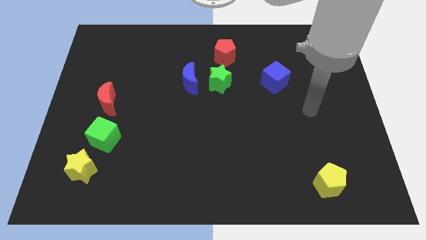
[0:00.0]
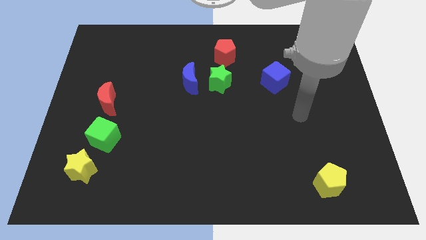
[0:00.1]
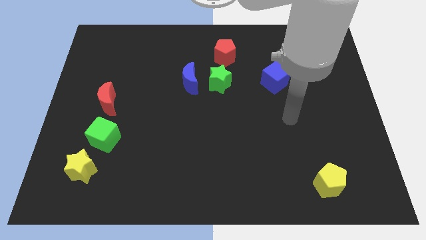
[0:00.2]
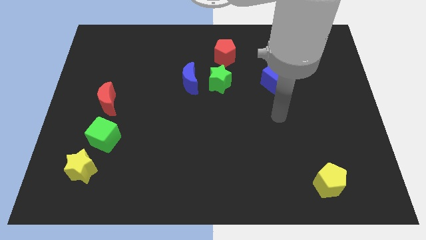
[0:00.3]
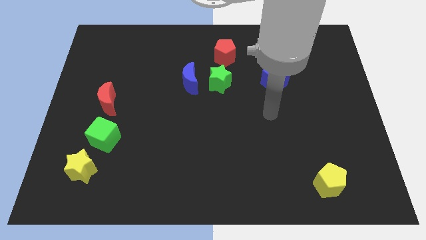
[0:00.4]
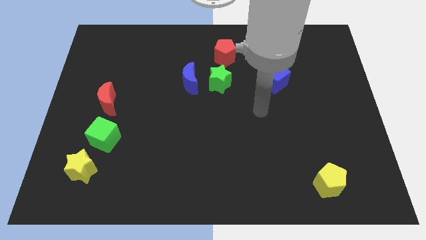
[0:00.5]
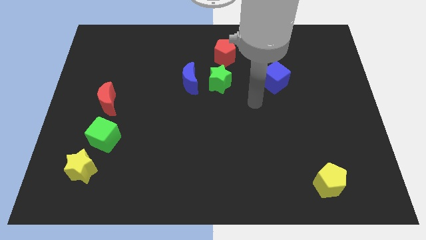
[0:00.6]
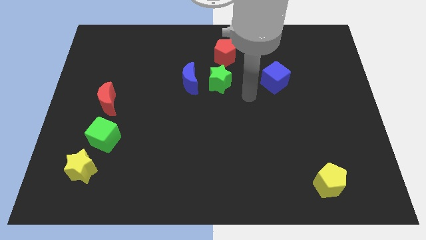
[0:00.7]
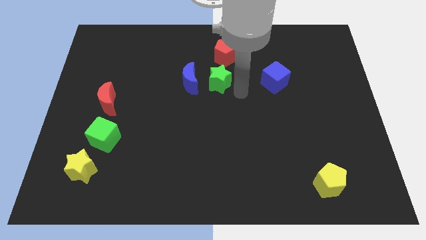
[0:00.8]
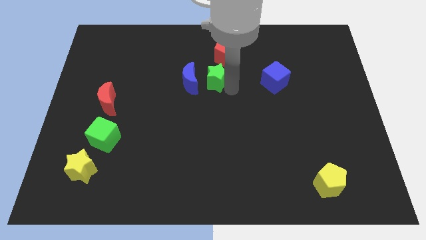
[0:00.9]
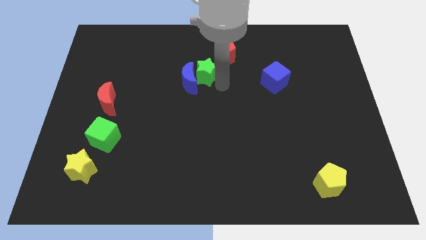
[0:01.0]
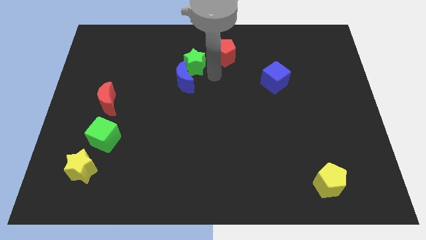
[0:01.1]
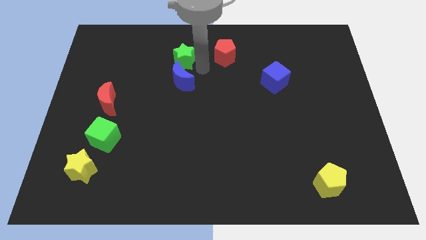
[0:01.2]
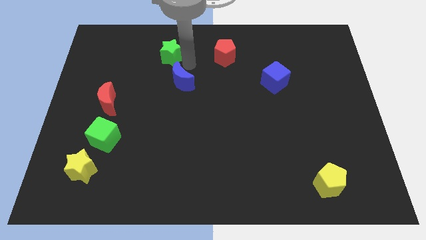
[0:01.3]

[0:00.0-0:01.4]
separate the blue moon from the green star

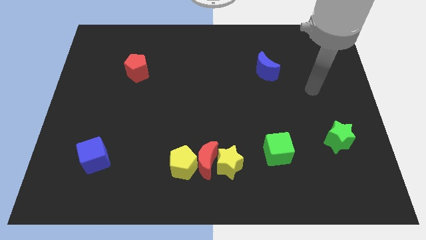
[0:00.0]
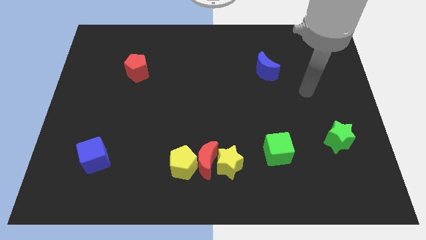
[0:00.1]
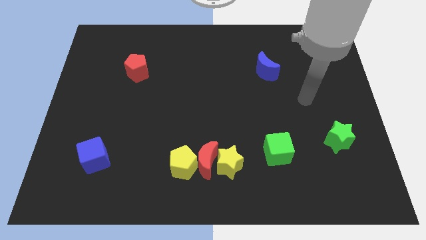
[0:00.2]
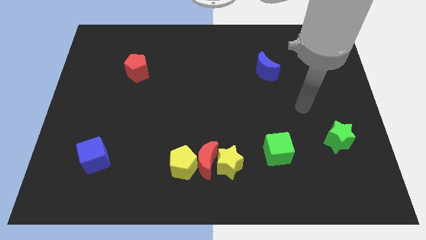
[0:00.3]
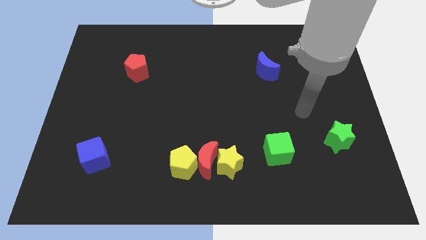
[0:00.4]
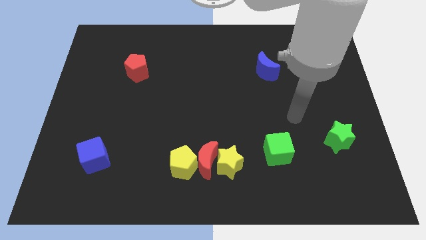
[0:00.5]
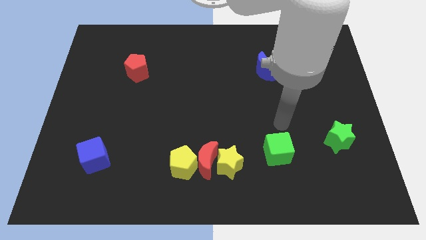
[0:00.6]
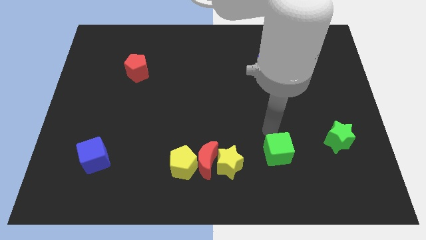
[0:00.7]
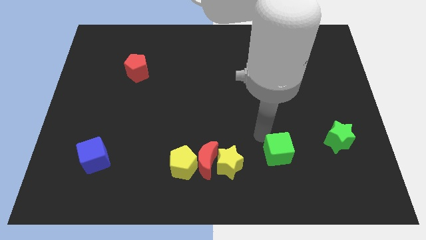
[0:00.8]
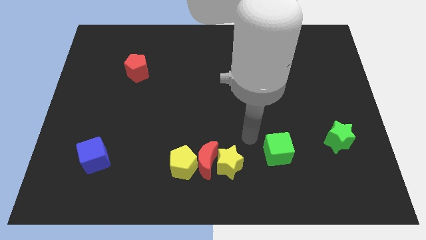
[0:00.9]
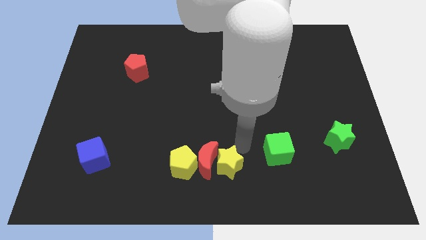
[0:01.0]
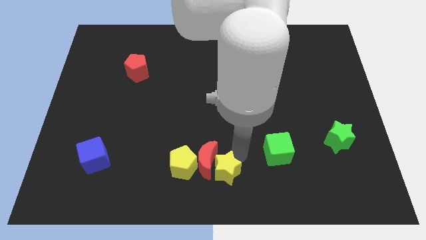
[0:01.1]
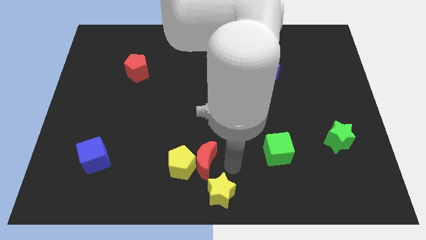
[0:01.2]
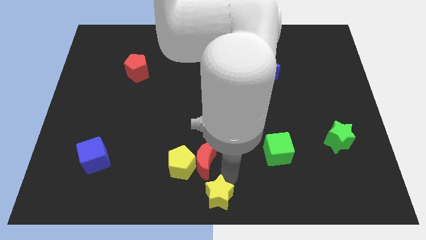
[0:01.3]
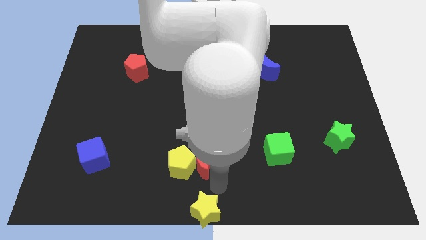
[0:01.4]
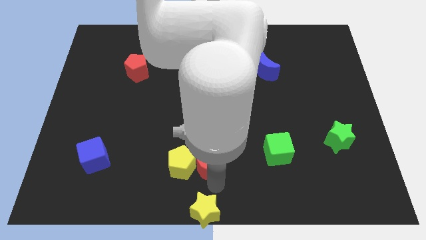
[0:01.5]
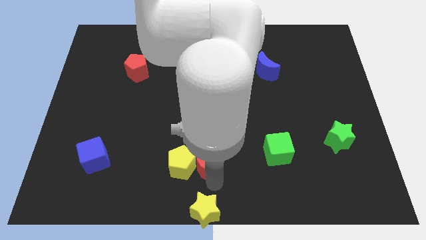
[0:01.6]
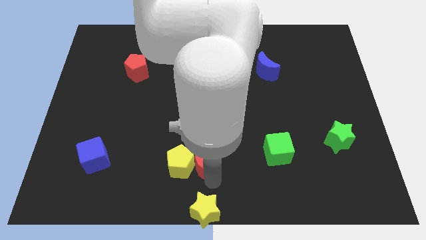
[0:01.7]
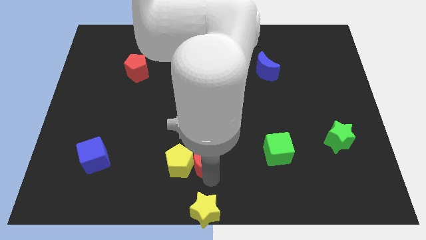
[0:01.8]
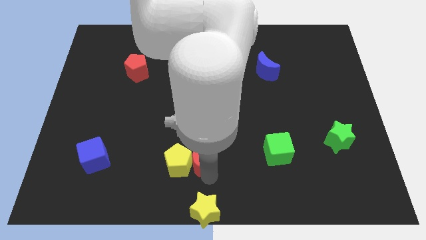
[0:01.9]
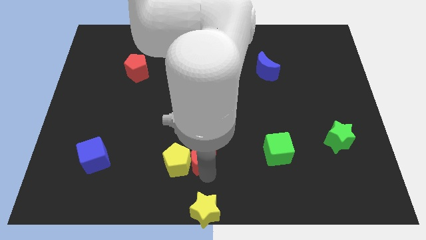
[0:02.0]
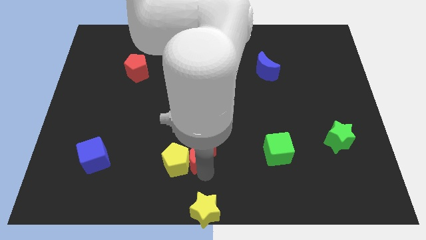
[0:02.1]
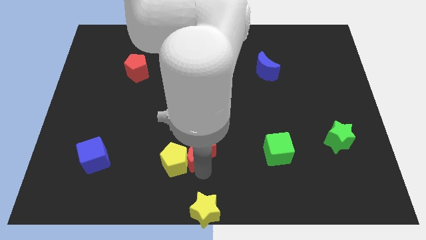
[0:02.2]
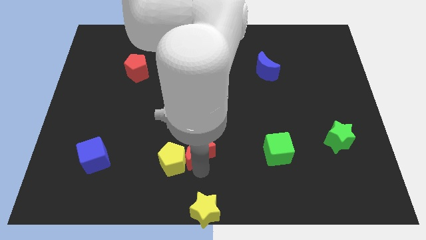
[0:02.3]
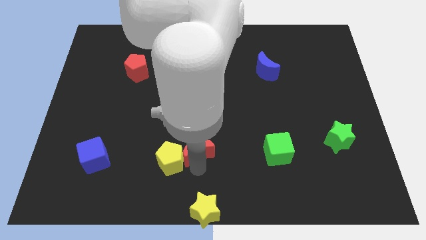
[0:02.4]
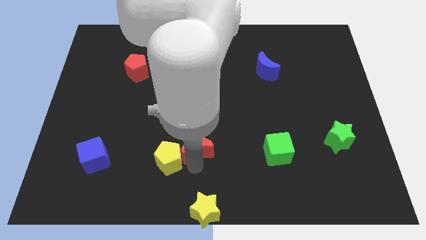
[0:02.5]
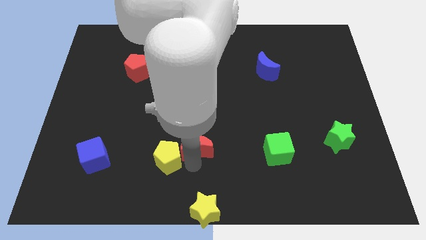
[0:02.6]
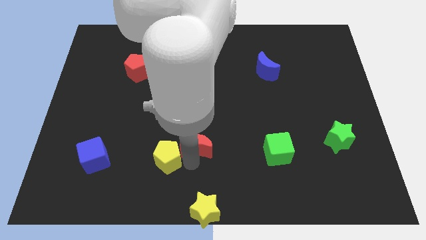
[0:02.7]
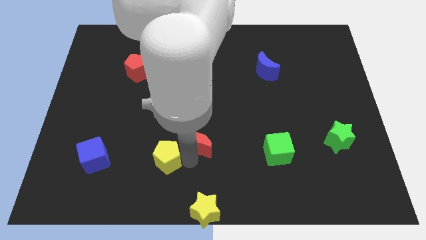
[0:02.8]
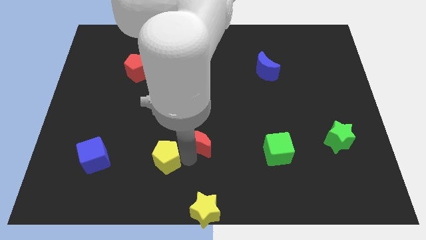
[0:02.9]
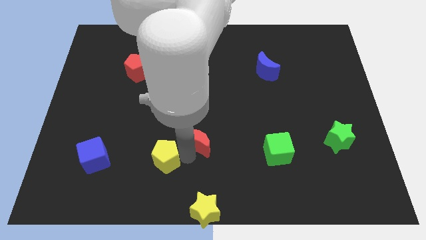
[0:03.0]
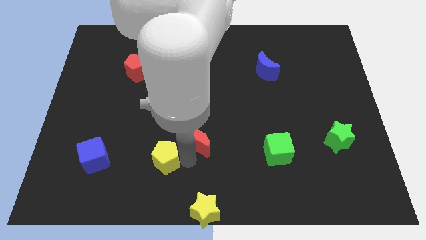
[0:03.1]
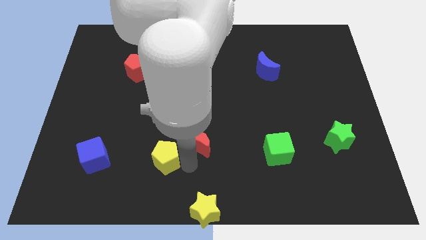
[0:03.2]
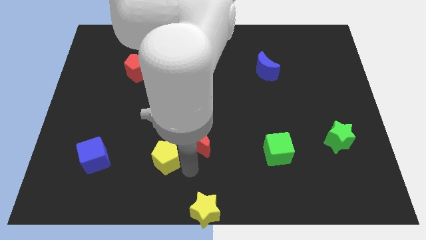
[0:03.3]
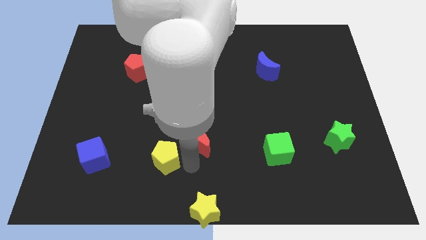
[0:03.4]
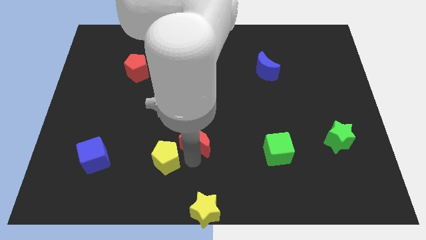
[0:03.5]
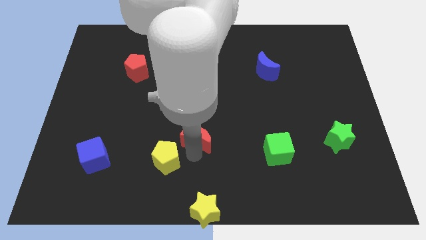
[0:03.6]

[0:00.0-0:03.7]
separate the red moon from the yellow pentagon and yellow star

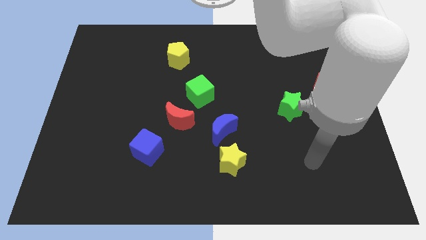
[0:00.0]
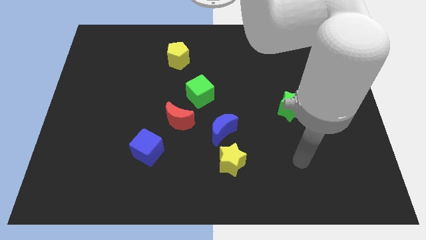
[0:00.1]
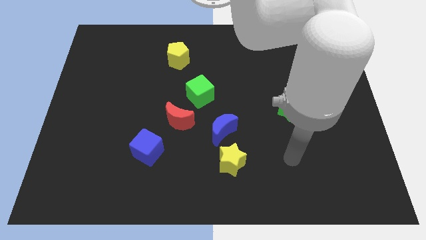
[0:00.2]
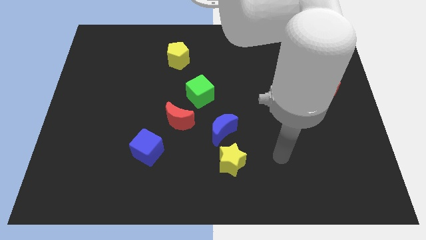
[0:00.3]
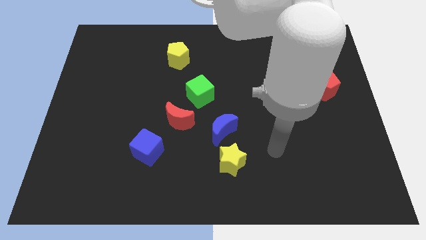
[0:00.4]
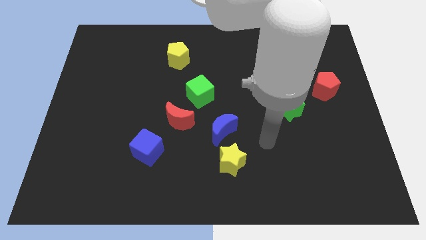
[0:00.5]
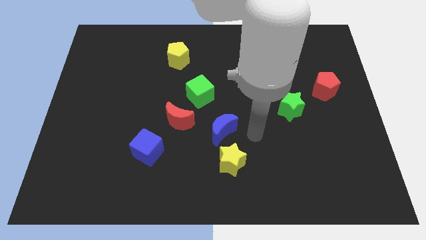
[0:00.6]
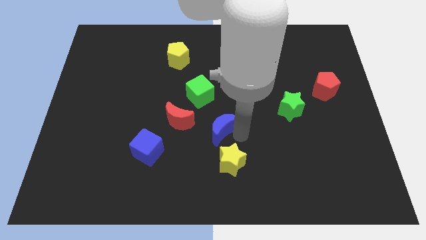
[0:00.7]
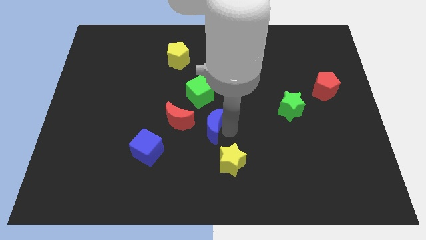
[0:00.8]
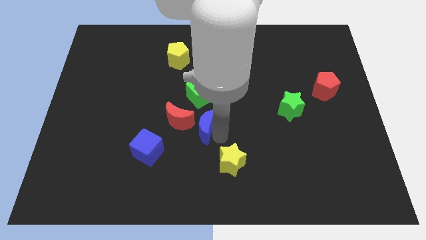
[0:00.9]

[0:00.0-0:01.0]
pull the yellow star apart from the blue moon

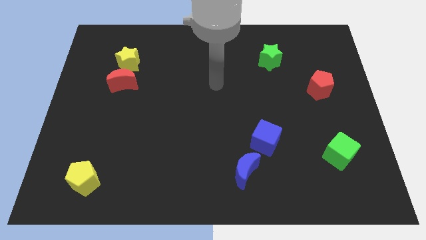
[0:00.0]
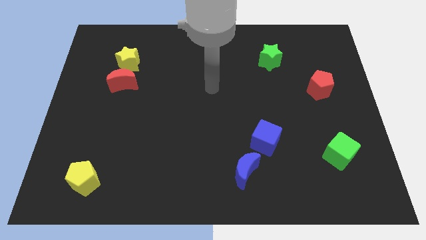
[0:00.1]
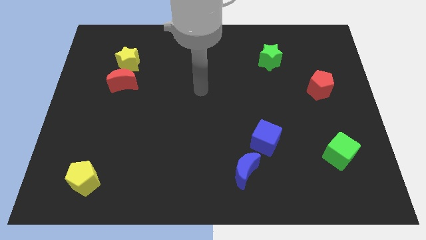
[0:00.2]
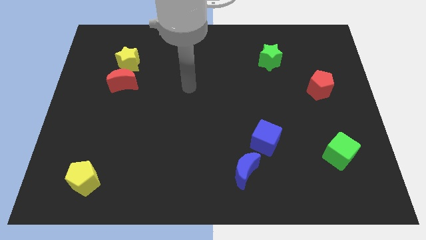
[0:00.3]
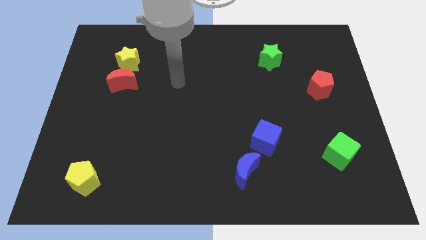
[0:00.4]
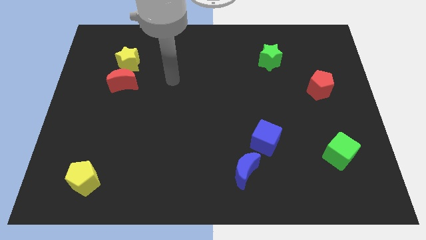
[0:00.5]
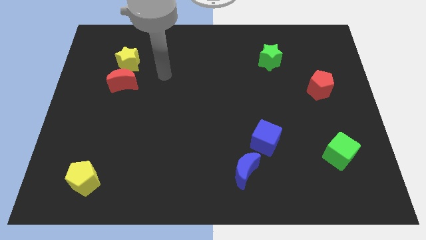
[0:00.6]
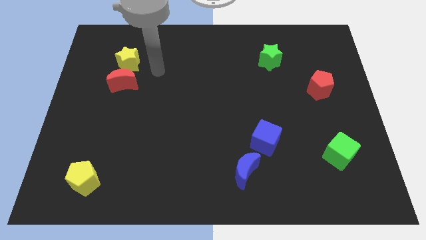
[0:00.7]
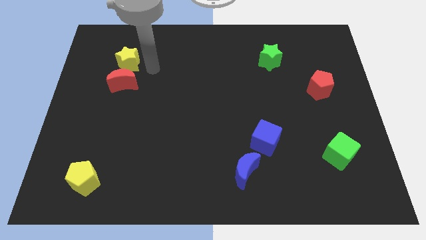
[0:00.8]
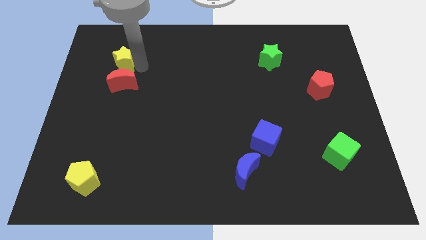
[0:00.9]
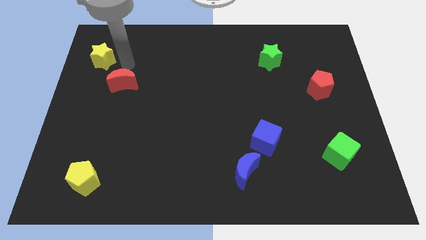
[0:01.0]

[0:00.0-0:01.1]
pull the red moon apart from the yellow star

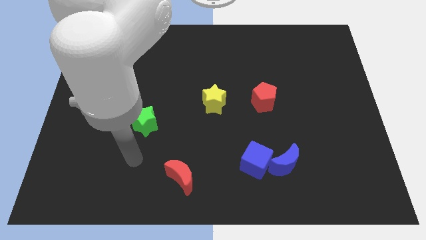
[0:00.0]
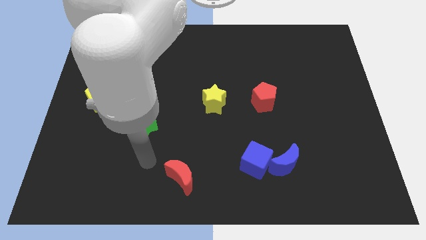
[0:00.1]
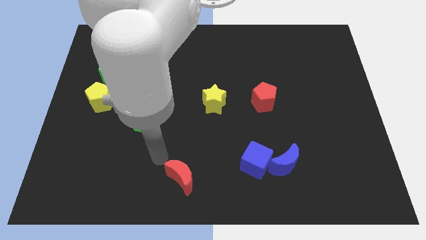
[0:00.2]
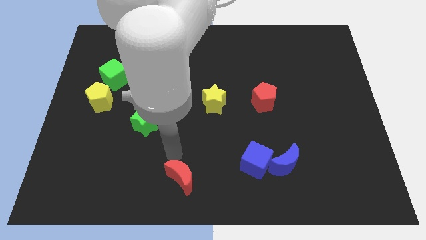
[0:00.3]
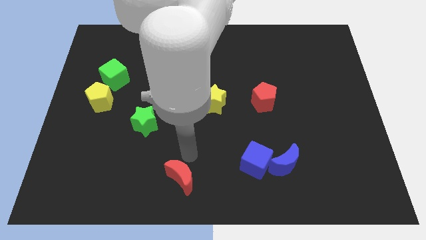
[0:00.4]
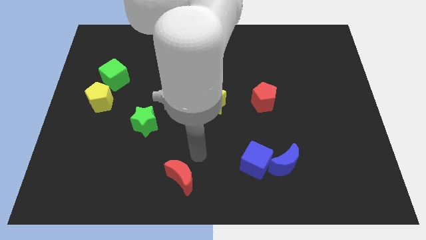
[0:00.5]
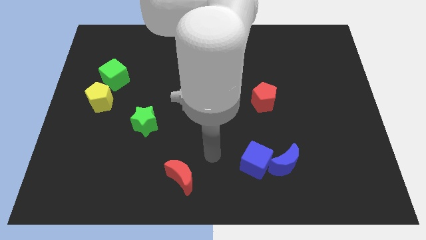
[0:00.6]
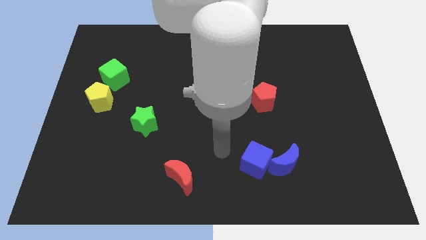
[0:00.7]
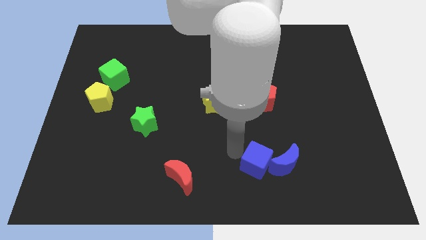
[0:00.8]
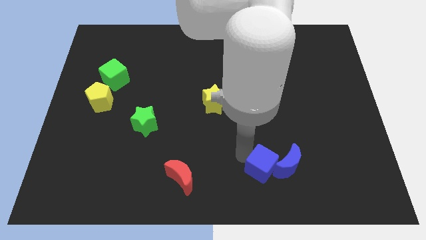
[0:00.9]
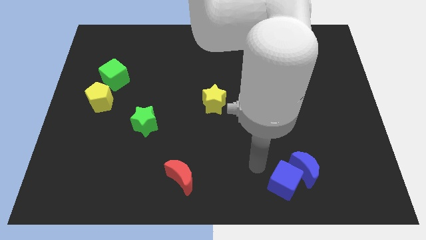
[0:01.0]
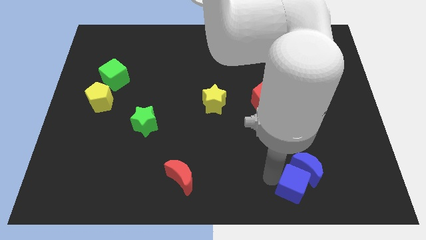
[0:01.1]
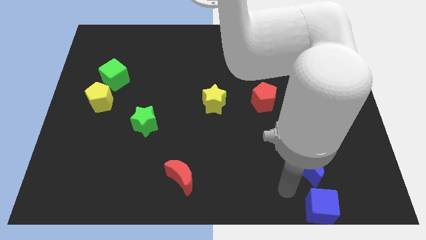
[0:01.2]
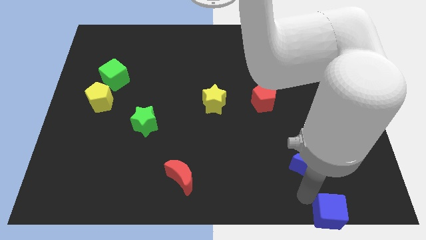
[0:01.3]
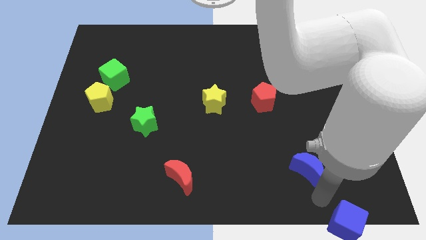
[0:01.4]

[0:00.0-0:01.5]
pull the blue moon apart from the blue cube

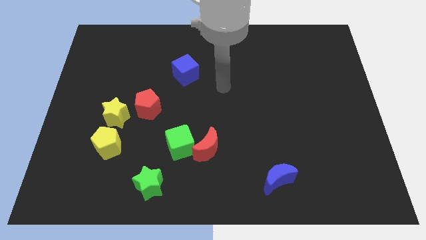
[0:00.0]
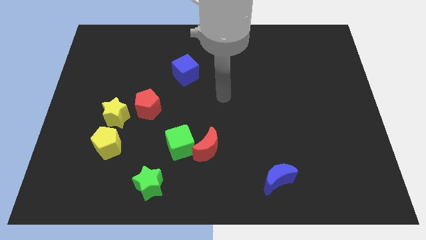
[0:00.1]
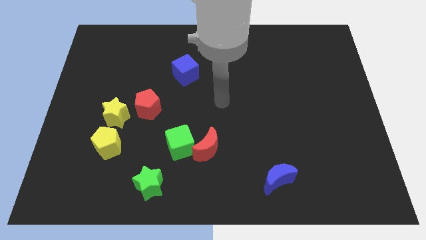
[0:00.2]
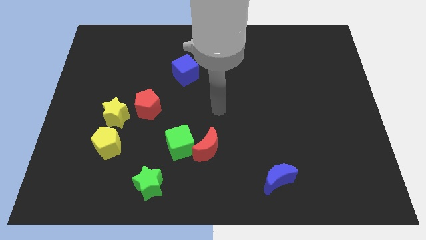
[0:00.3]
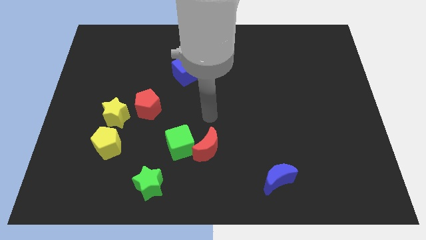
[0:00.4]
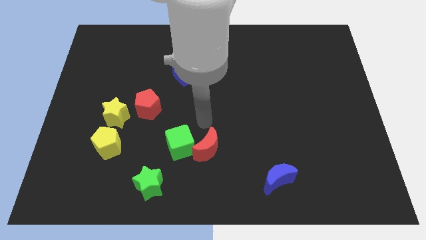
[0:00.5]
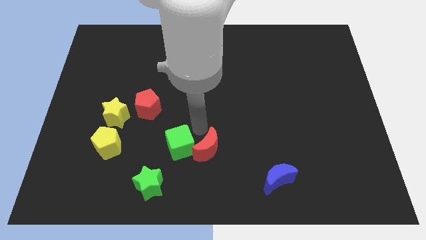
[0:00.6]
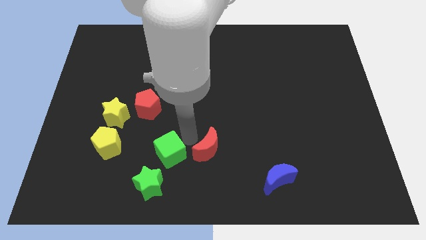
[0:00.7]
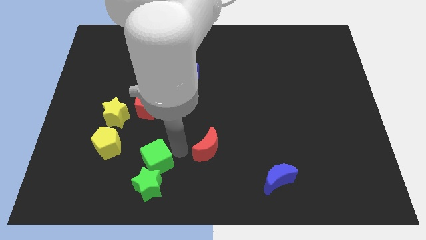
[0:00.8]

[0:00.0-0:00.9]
move the red moon away from the green cube
